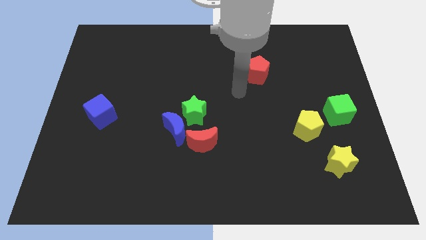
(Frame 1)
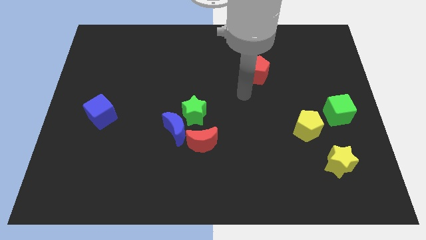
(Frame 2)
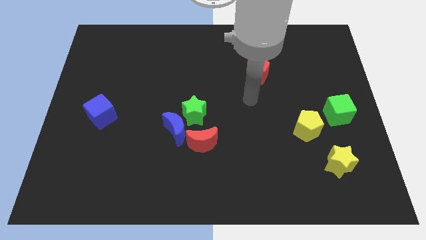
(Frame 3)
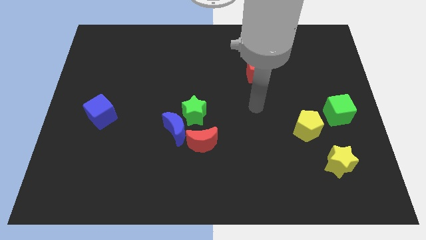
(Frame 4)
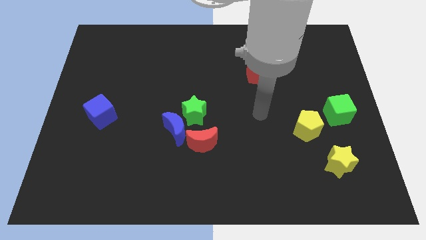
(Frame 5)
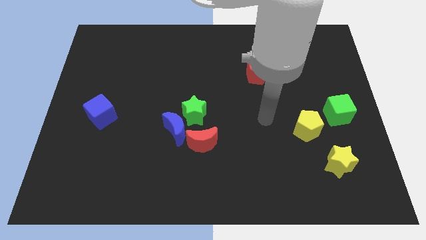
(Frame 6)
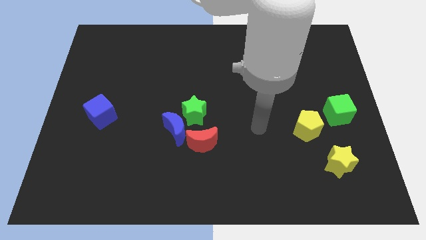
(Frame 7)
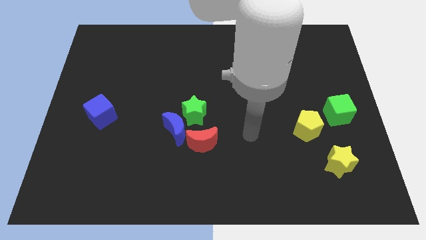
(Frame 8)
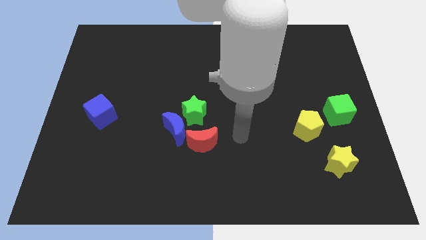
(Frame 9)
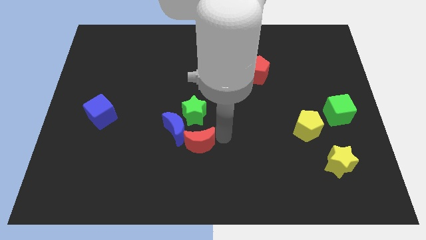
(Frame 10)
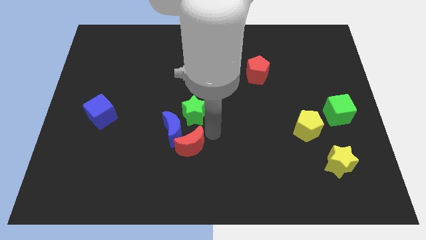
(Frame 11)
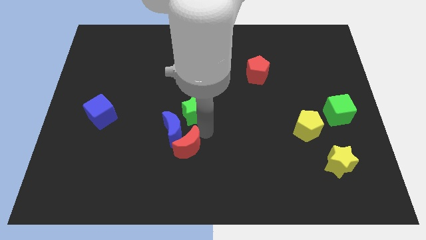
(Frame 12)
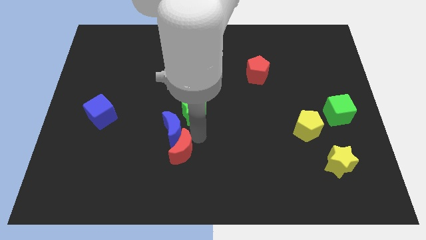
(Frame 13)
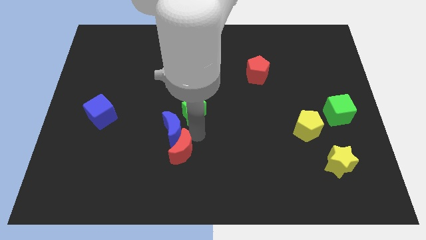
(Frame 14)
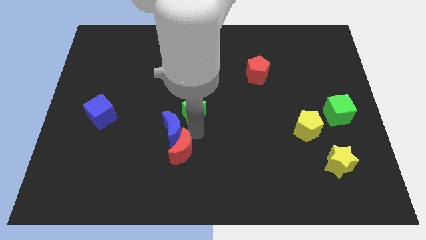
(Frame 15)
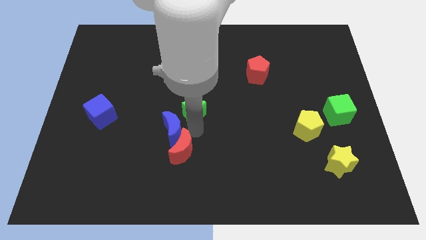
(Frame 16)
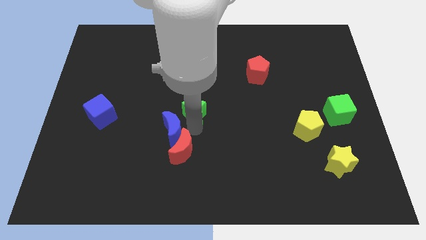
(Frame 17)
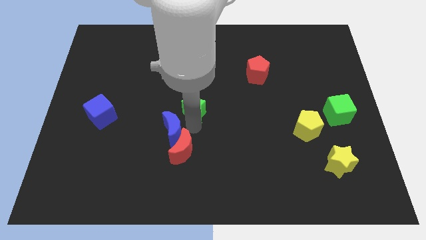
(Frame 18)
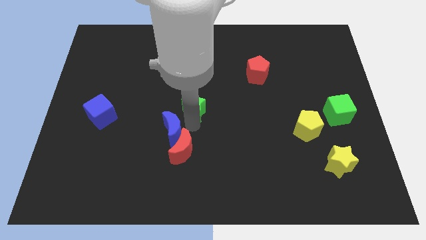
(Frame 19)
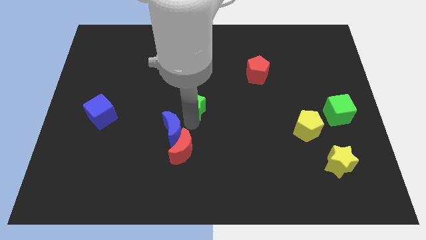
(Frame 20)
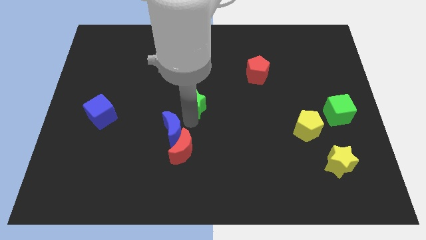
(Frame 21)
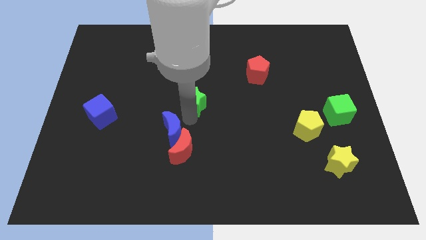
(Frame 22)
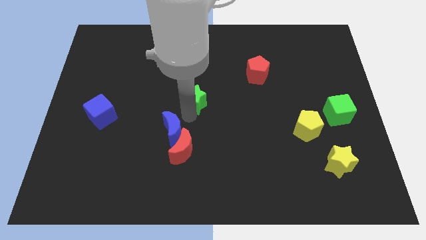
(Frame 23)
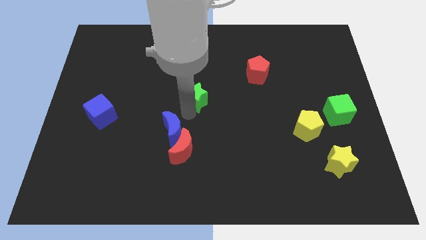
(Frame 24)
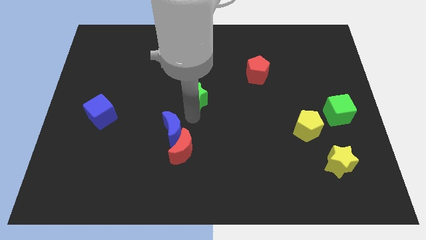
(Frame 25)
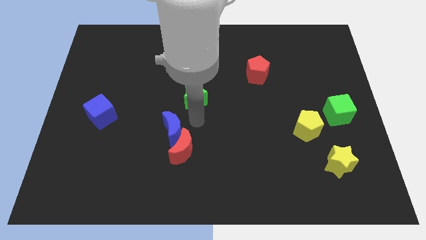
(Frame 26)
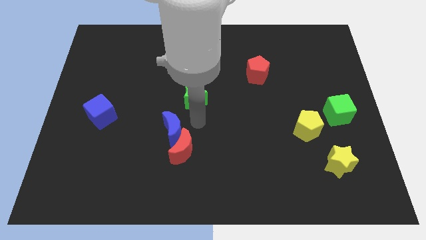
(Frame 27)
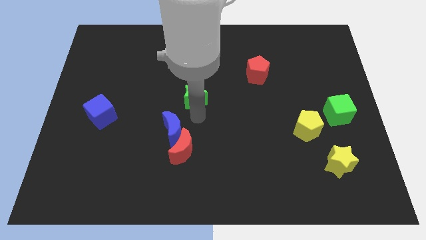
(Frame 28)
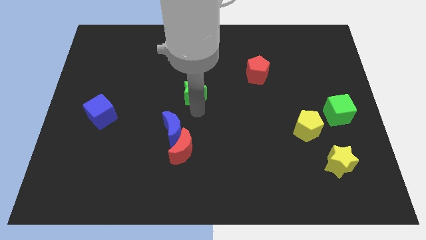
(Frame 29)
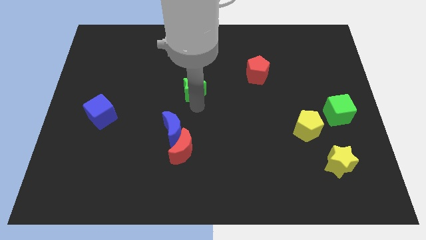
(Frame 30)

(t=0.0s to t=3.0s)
move the green star a little bit upwards

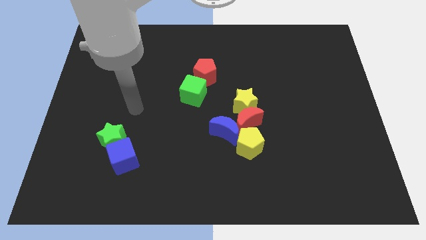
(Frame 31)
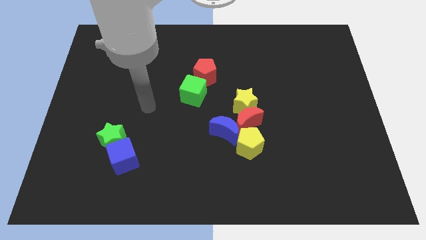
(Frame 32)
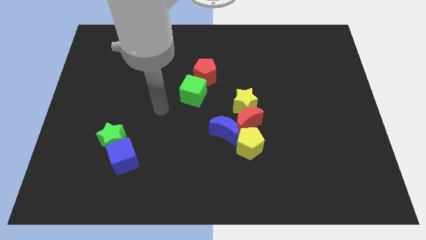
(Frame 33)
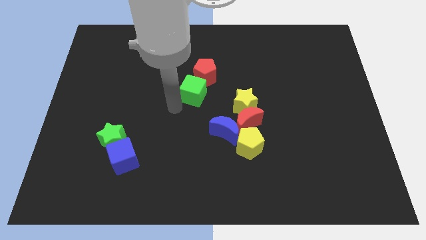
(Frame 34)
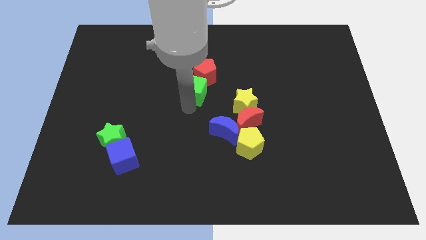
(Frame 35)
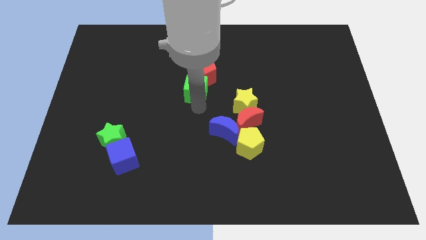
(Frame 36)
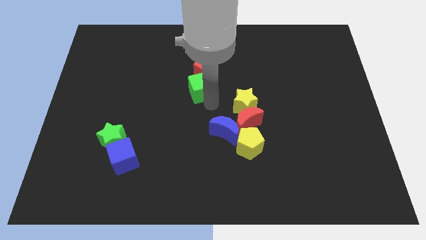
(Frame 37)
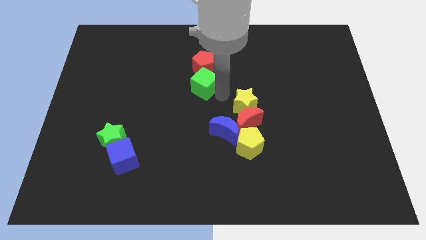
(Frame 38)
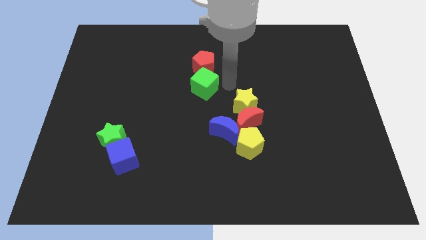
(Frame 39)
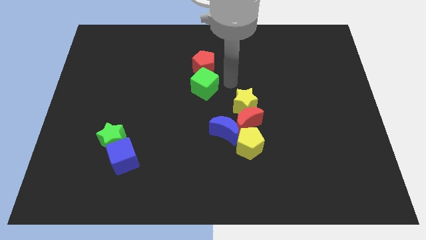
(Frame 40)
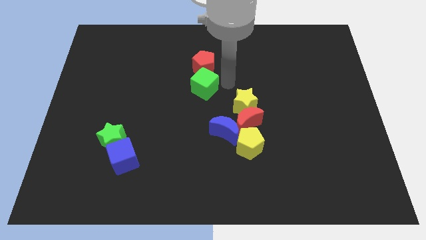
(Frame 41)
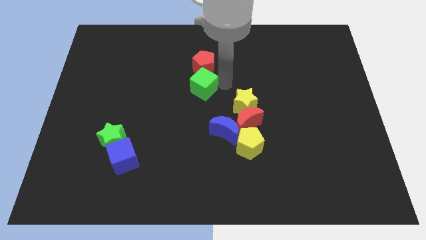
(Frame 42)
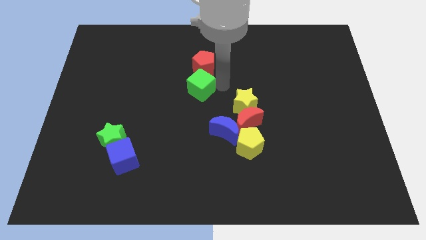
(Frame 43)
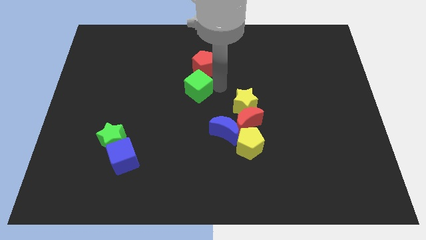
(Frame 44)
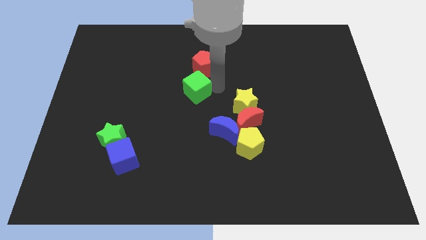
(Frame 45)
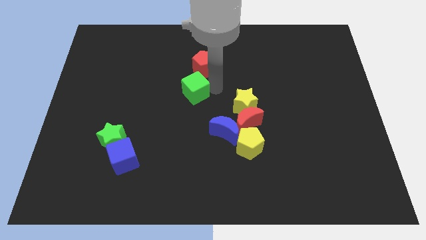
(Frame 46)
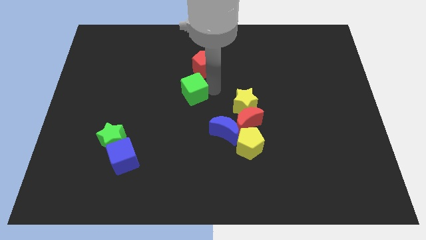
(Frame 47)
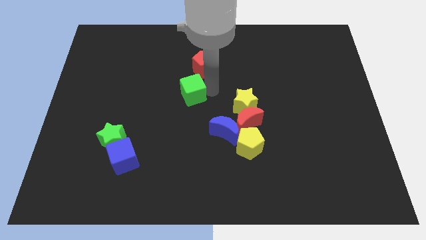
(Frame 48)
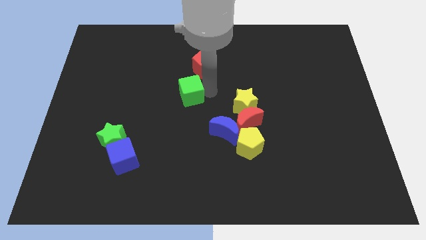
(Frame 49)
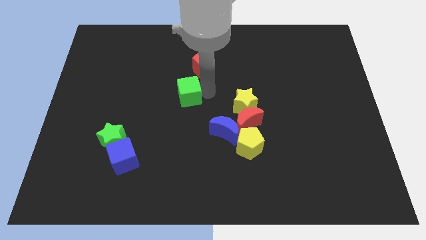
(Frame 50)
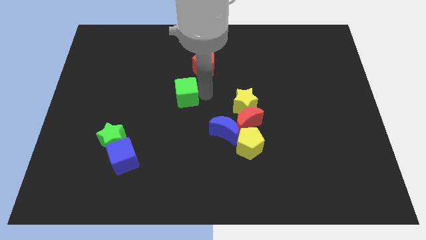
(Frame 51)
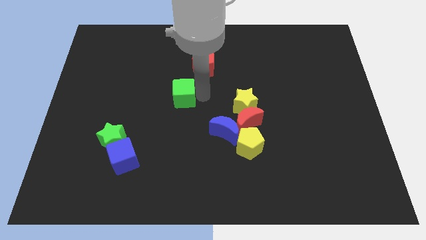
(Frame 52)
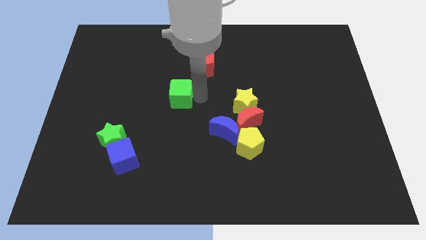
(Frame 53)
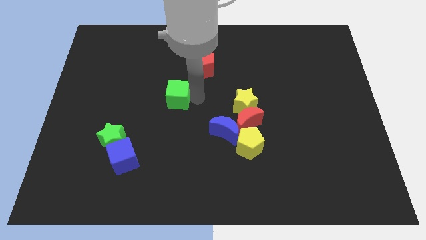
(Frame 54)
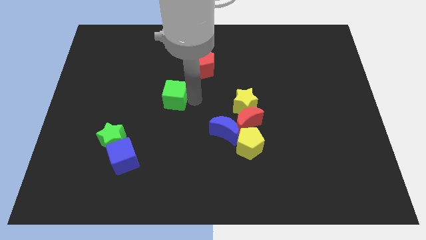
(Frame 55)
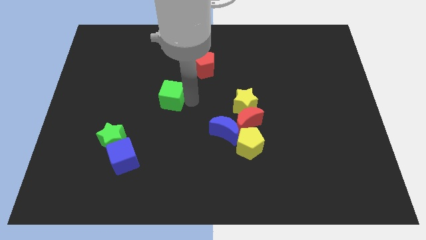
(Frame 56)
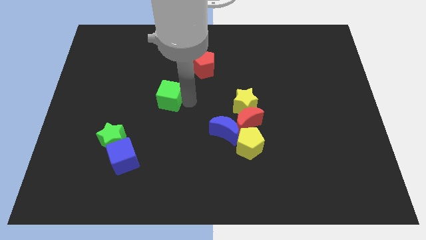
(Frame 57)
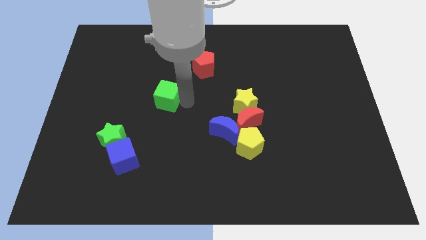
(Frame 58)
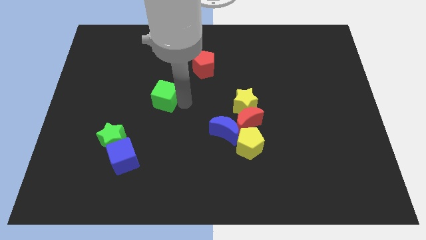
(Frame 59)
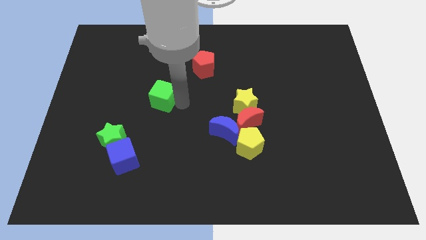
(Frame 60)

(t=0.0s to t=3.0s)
slightly move the green cube left

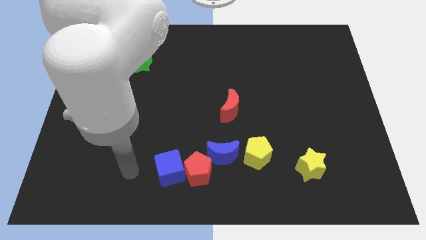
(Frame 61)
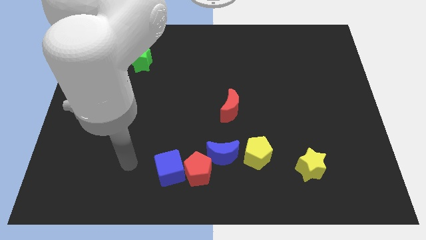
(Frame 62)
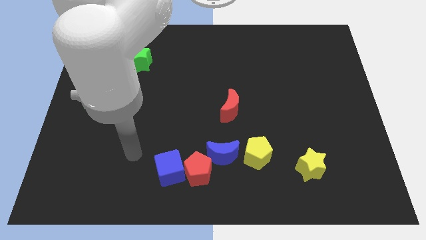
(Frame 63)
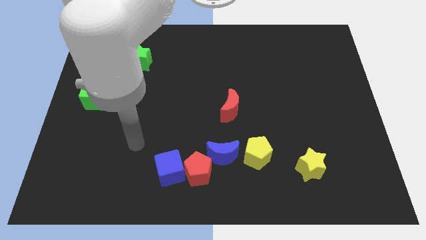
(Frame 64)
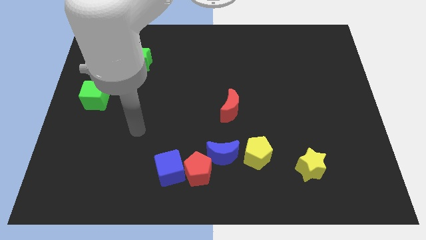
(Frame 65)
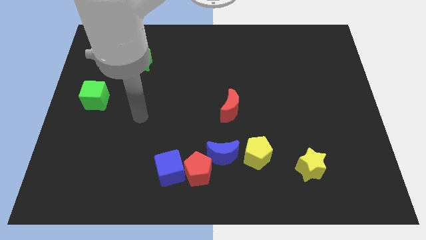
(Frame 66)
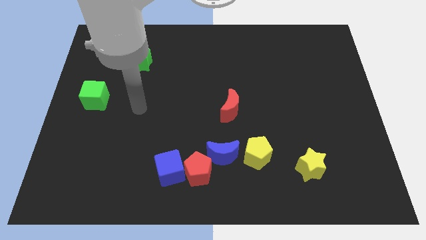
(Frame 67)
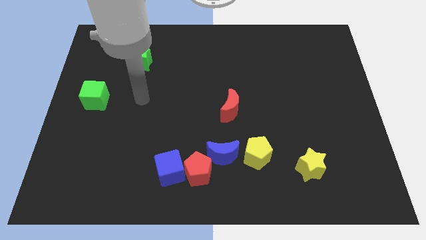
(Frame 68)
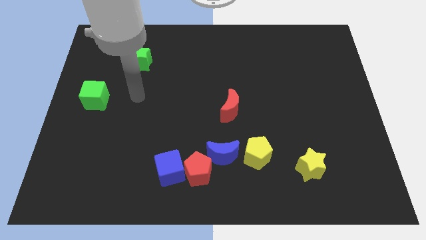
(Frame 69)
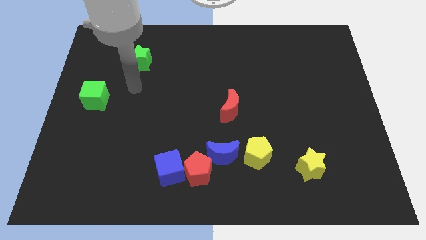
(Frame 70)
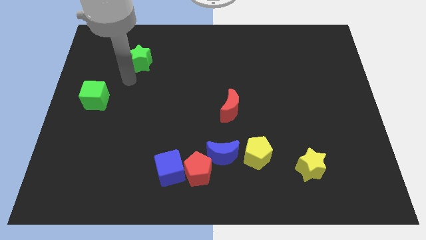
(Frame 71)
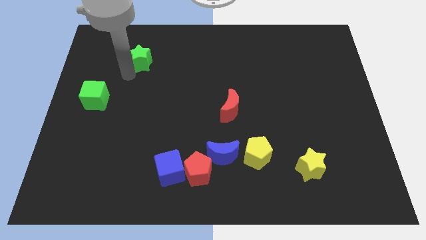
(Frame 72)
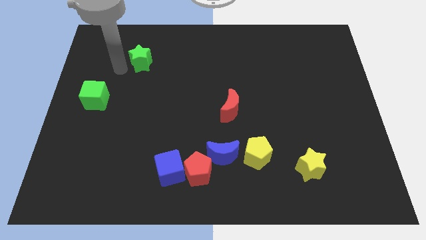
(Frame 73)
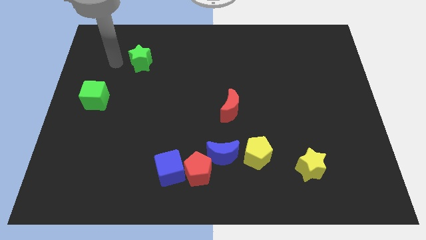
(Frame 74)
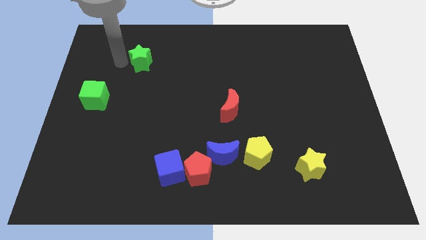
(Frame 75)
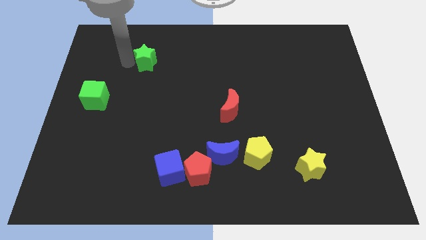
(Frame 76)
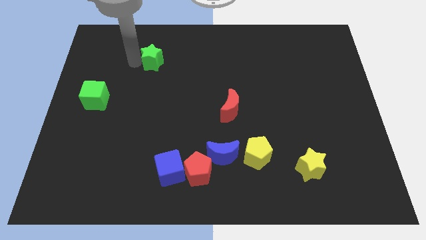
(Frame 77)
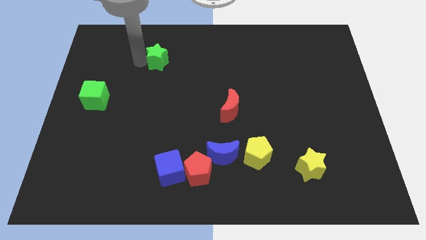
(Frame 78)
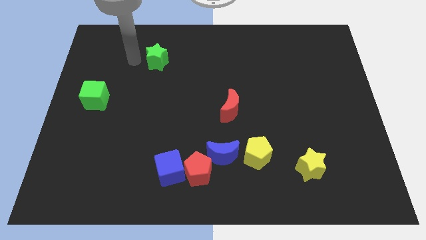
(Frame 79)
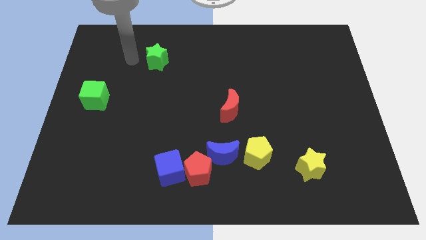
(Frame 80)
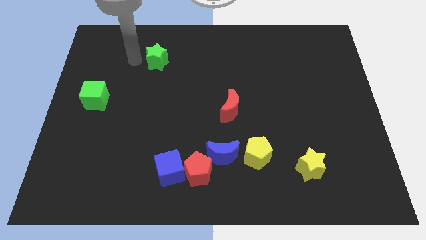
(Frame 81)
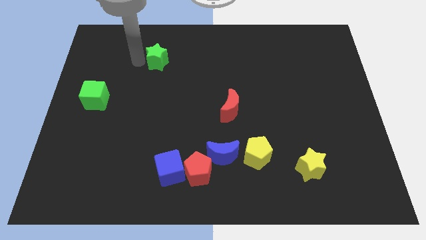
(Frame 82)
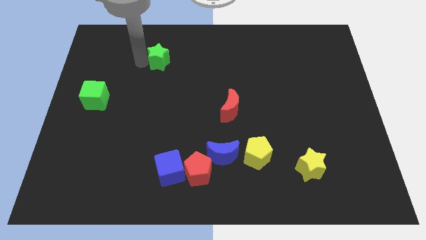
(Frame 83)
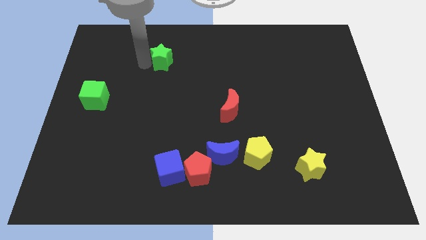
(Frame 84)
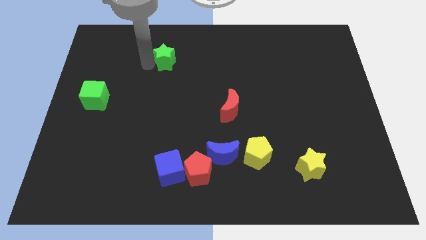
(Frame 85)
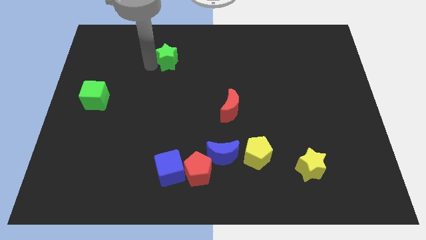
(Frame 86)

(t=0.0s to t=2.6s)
slide the green star to the right a little bit

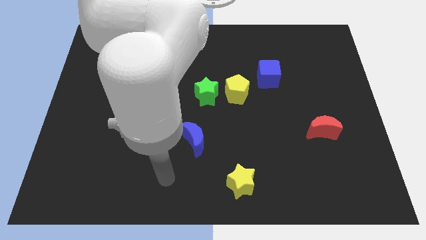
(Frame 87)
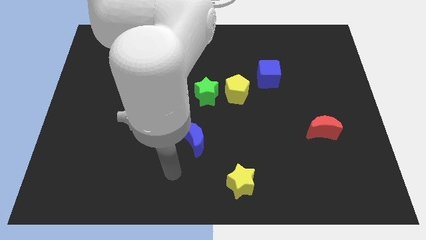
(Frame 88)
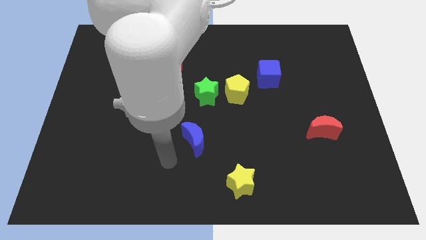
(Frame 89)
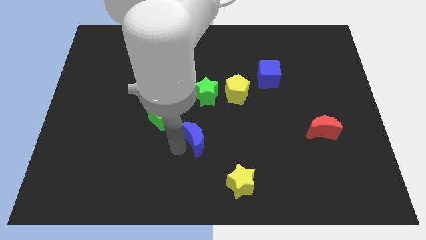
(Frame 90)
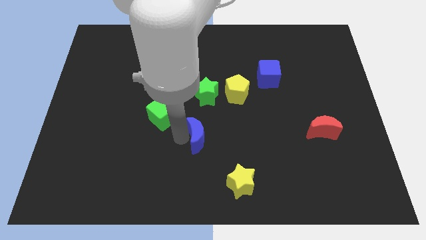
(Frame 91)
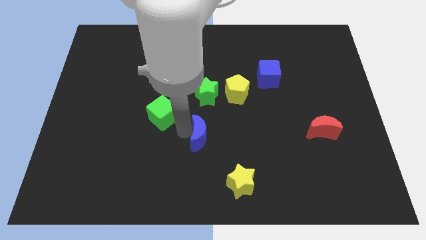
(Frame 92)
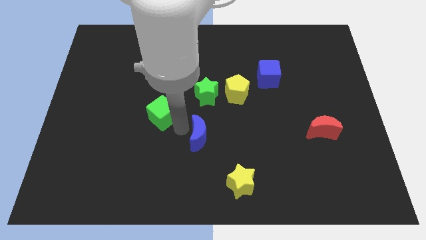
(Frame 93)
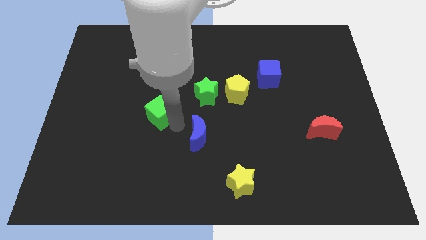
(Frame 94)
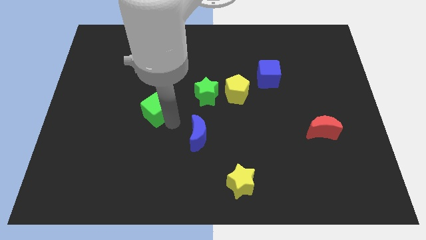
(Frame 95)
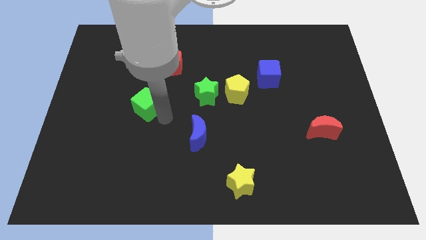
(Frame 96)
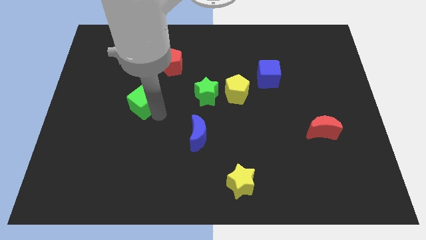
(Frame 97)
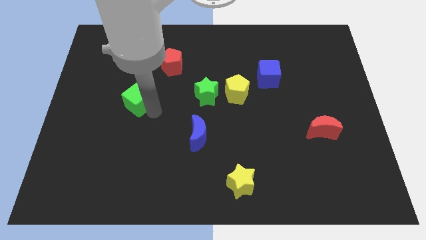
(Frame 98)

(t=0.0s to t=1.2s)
move the green cube a little bit diagonally up and left
